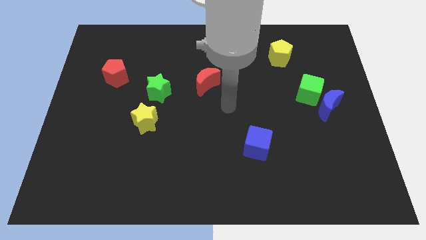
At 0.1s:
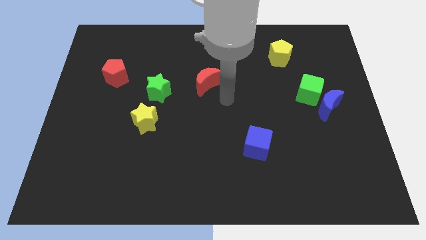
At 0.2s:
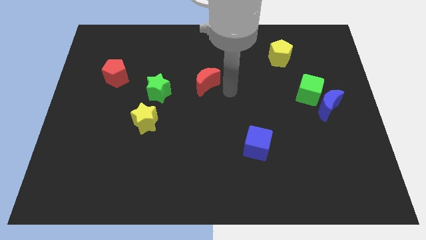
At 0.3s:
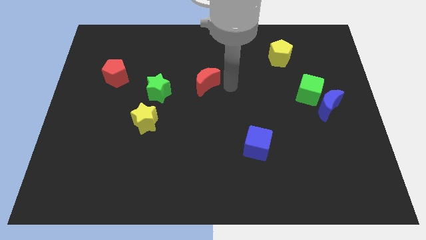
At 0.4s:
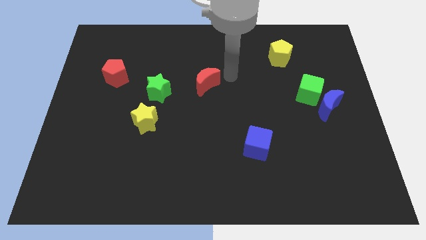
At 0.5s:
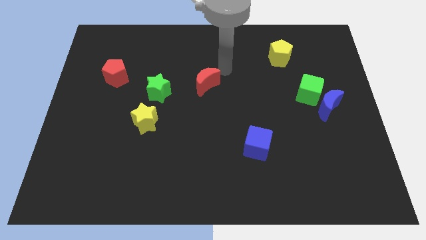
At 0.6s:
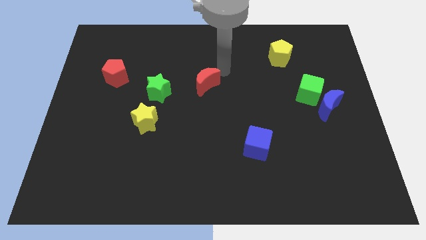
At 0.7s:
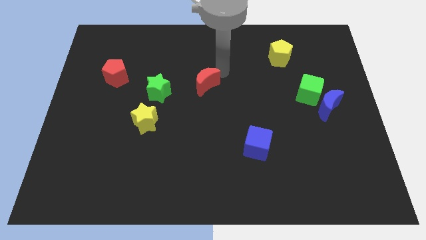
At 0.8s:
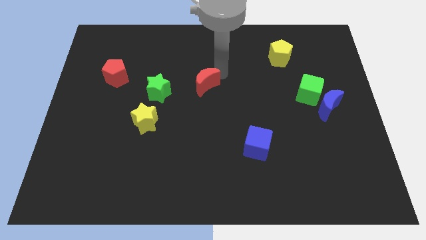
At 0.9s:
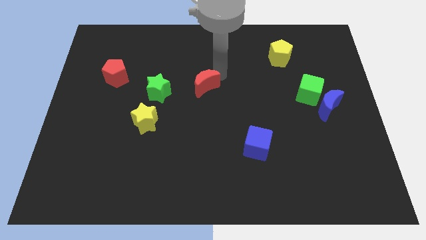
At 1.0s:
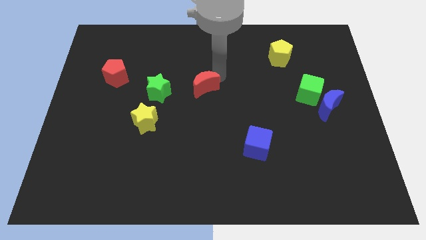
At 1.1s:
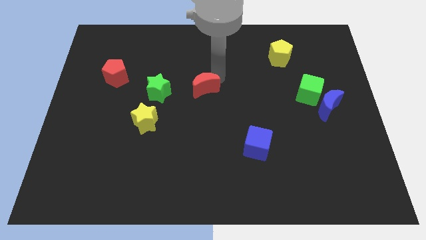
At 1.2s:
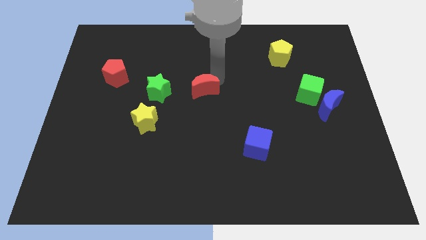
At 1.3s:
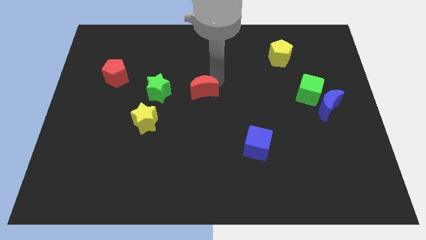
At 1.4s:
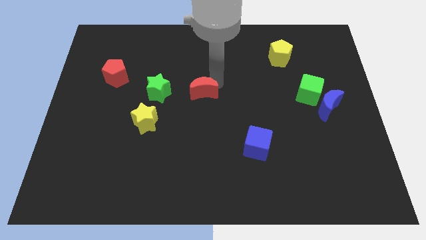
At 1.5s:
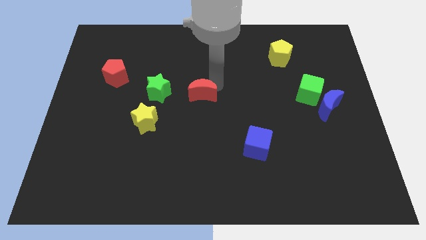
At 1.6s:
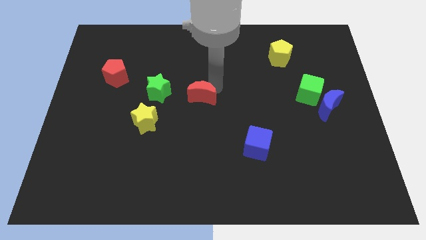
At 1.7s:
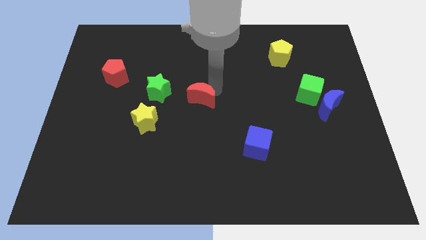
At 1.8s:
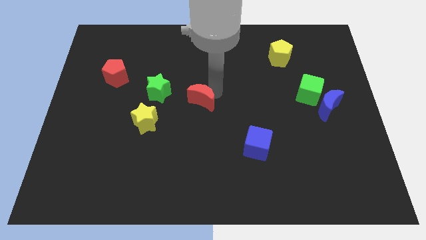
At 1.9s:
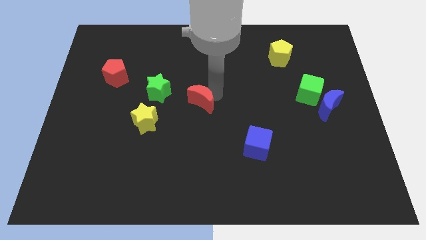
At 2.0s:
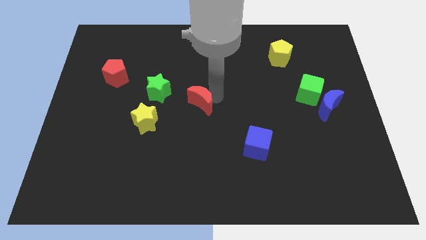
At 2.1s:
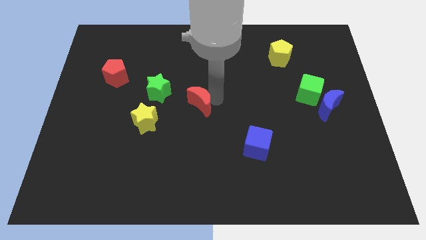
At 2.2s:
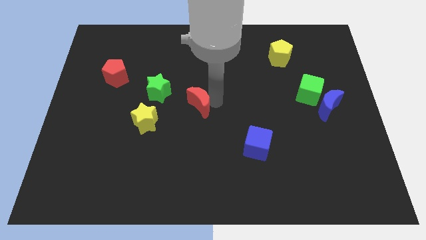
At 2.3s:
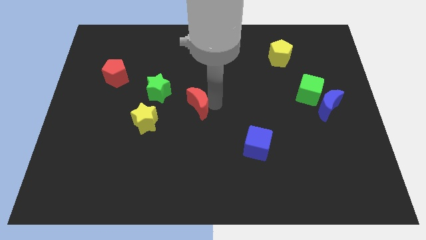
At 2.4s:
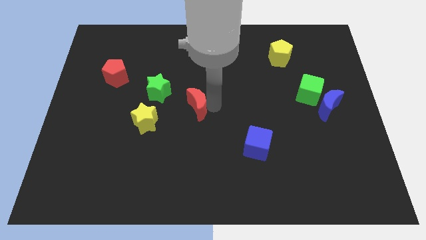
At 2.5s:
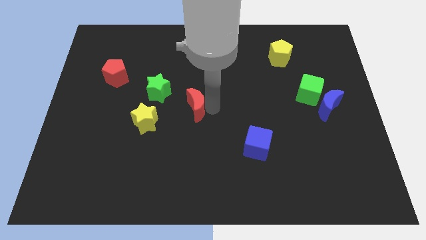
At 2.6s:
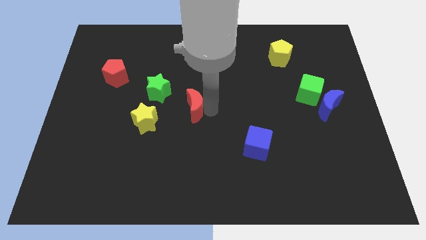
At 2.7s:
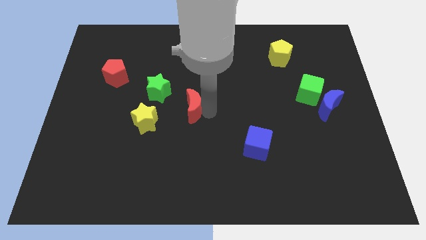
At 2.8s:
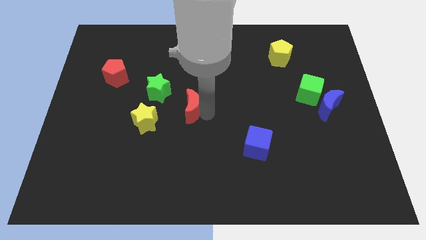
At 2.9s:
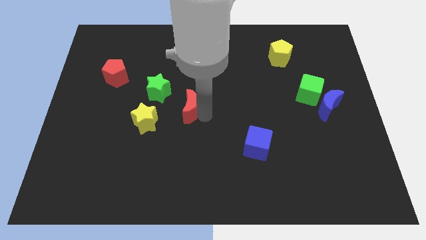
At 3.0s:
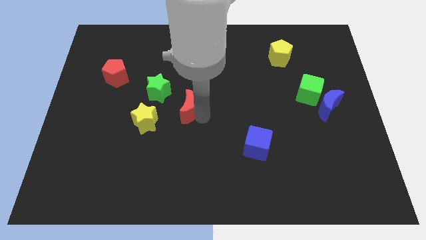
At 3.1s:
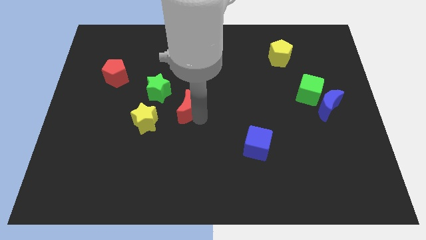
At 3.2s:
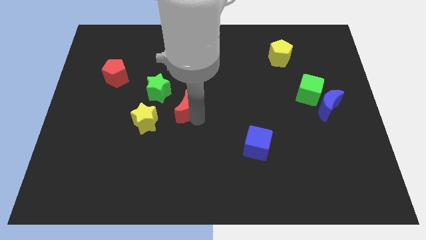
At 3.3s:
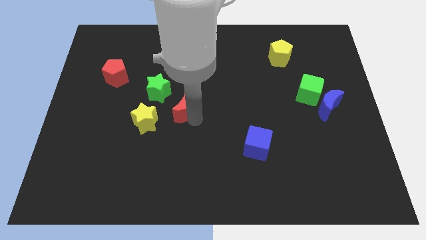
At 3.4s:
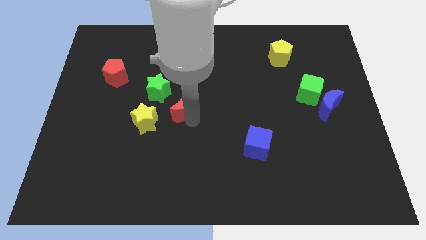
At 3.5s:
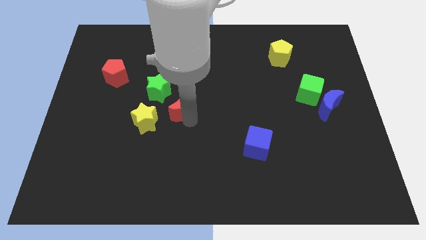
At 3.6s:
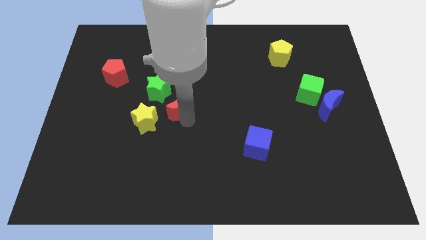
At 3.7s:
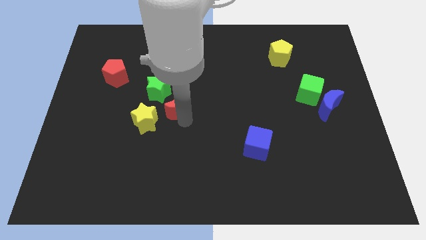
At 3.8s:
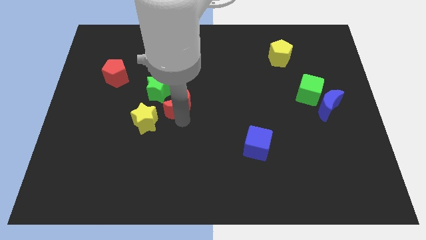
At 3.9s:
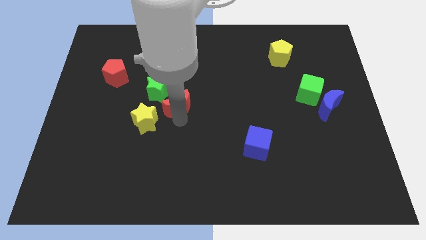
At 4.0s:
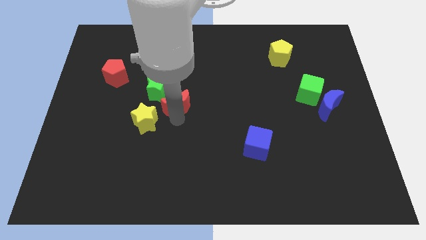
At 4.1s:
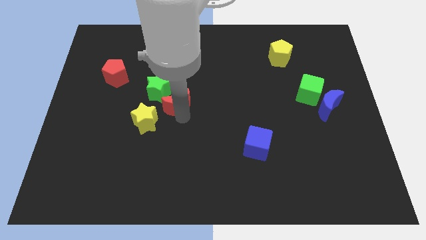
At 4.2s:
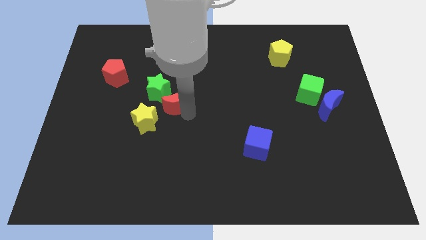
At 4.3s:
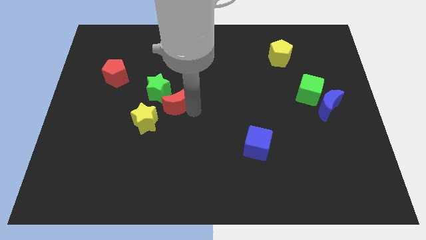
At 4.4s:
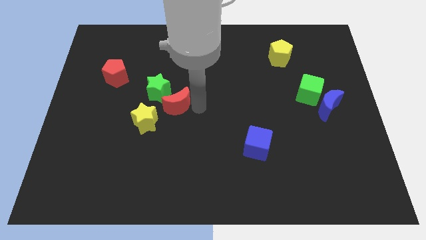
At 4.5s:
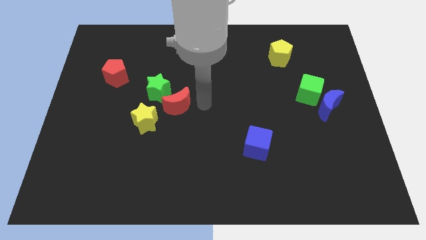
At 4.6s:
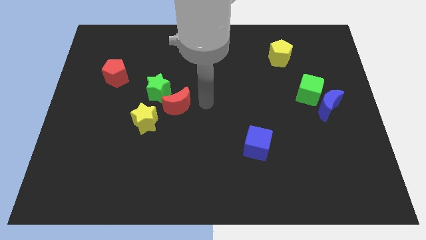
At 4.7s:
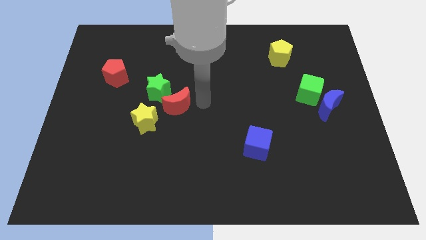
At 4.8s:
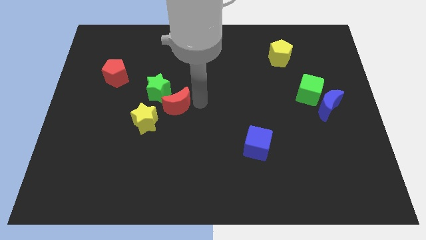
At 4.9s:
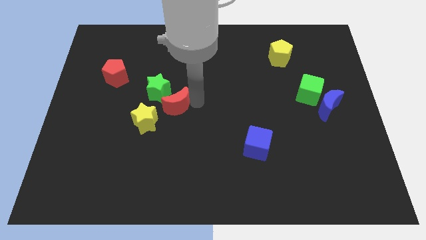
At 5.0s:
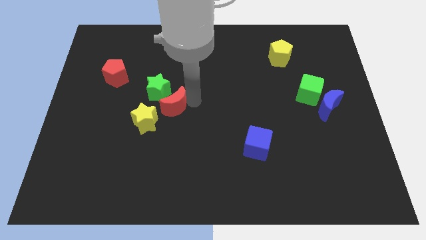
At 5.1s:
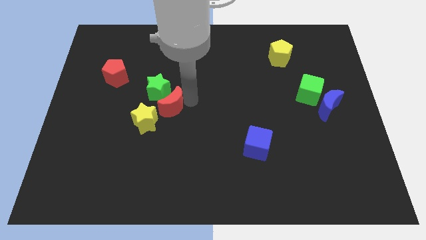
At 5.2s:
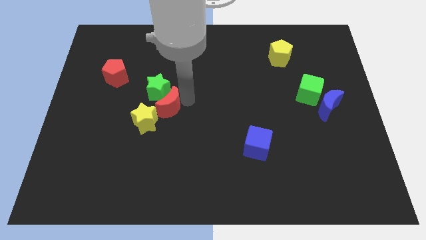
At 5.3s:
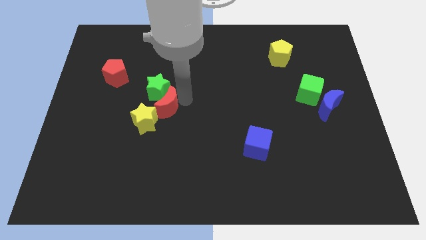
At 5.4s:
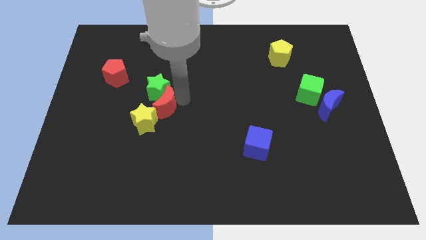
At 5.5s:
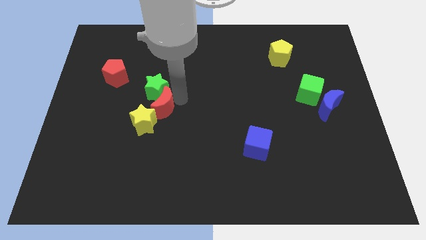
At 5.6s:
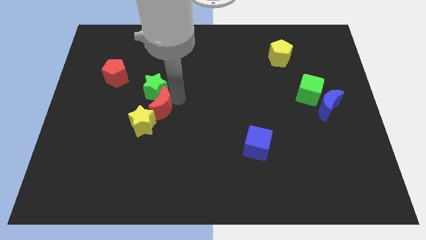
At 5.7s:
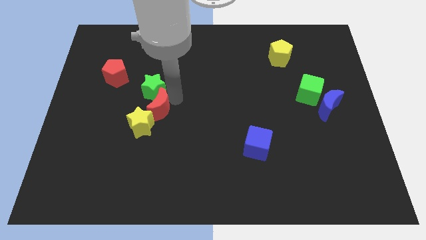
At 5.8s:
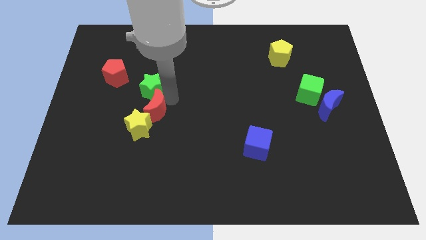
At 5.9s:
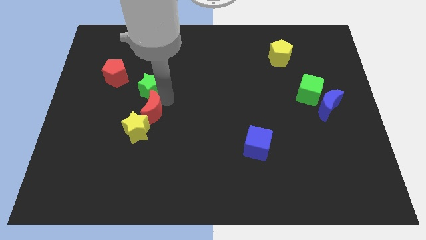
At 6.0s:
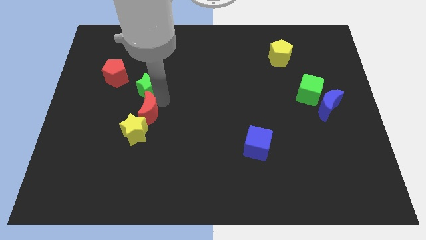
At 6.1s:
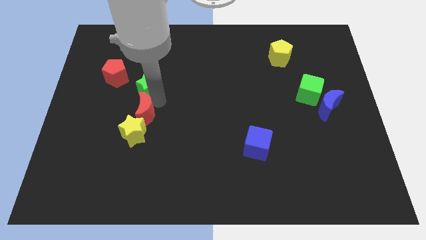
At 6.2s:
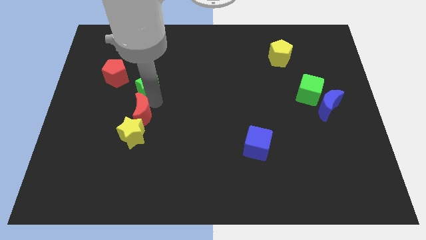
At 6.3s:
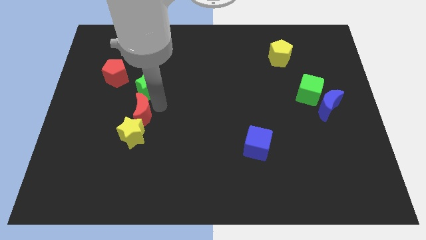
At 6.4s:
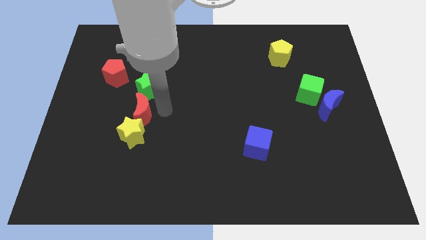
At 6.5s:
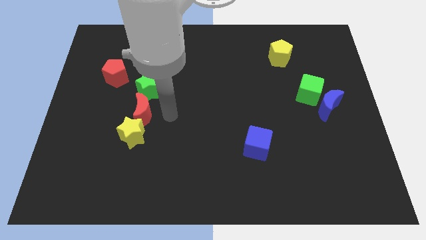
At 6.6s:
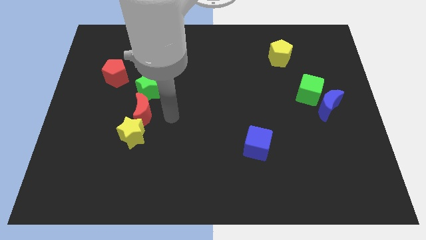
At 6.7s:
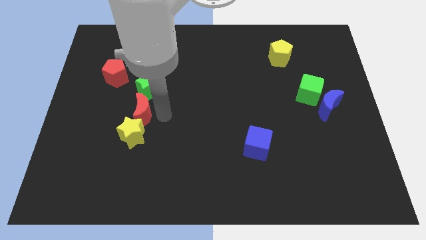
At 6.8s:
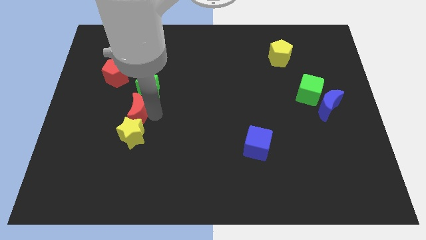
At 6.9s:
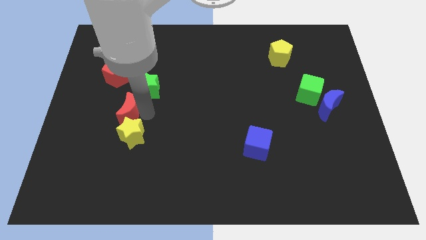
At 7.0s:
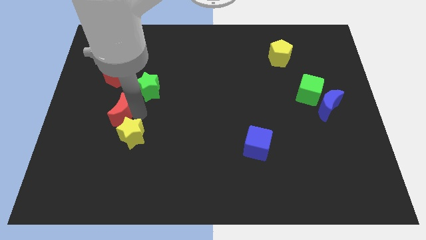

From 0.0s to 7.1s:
push the red moon below the red pentagon
